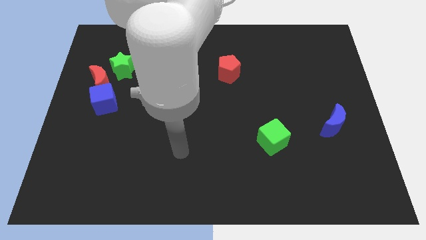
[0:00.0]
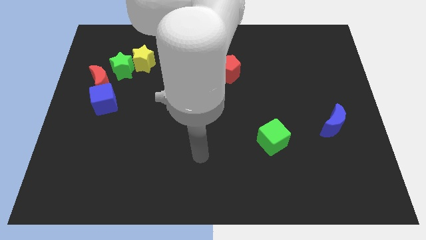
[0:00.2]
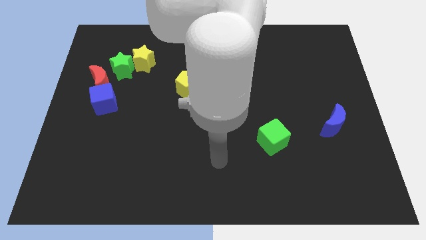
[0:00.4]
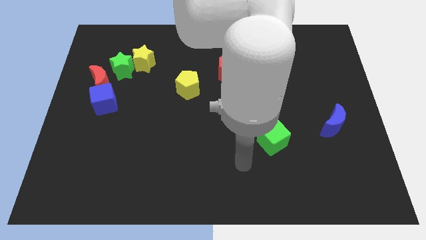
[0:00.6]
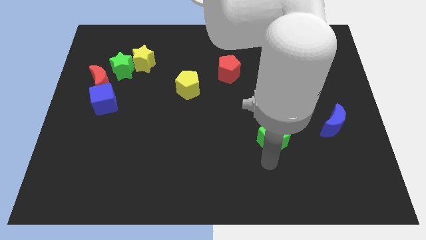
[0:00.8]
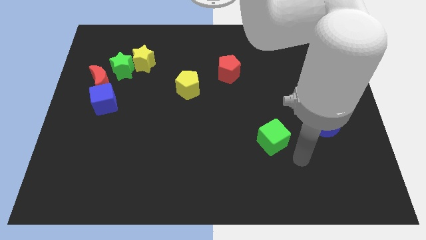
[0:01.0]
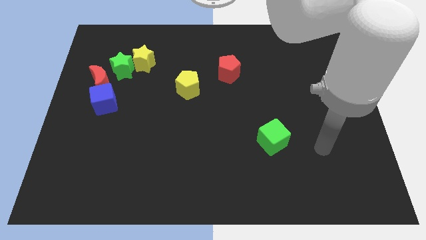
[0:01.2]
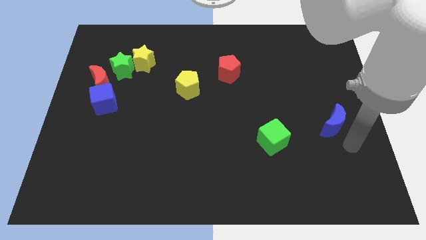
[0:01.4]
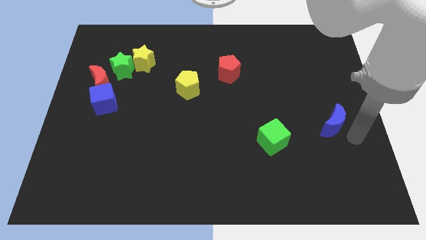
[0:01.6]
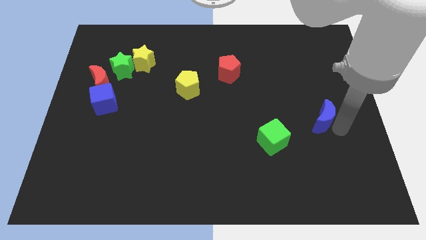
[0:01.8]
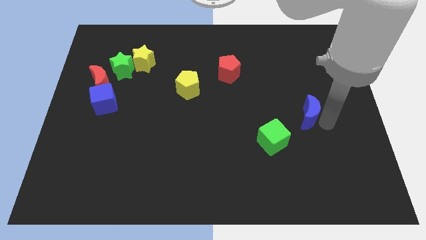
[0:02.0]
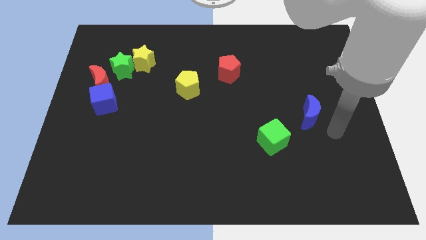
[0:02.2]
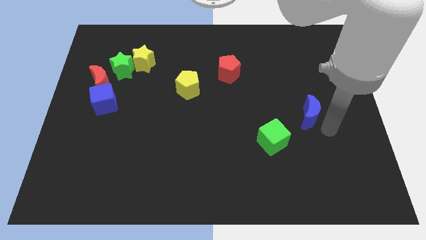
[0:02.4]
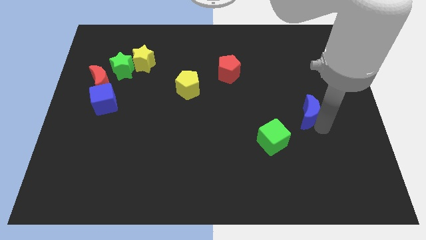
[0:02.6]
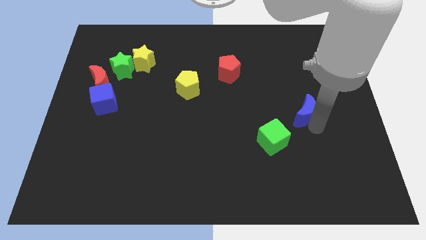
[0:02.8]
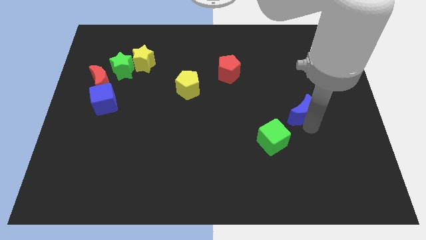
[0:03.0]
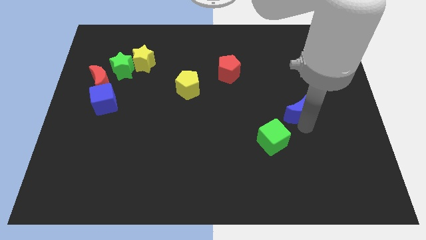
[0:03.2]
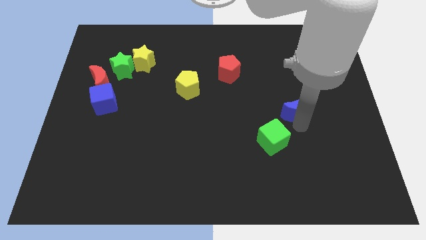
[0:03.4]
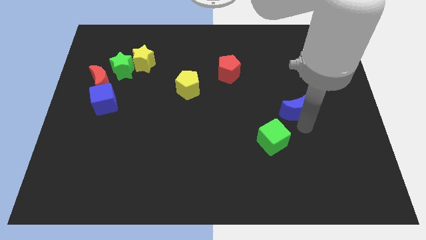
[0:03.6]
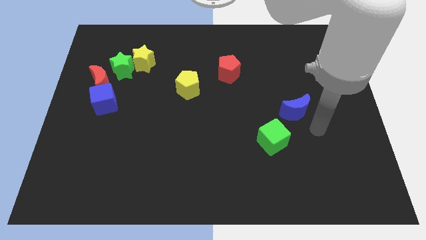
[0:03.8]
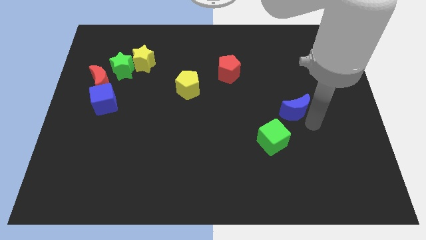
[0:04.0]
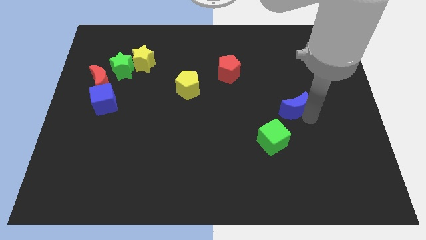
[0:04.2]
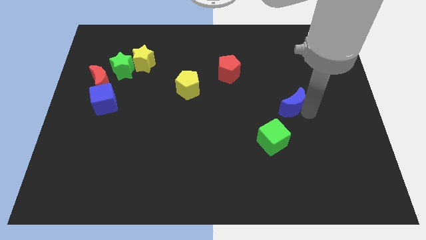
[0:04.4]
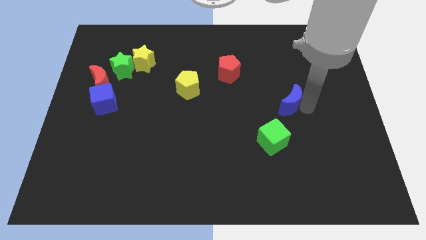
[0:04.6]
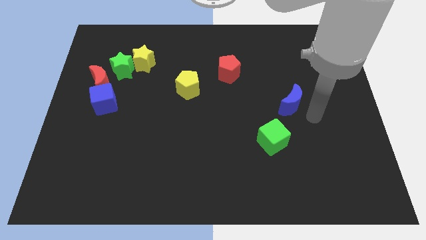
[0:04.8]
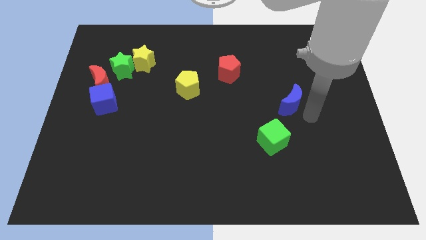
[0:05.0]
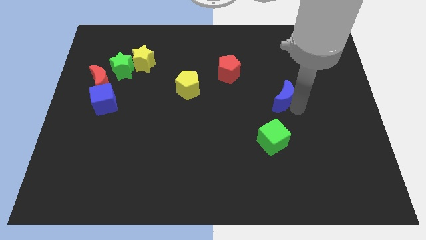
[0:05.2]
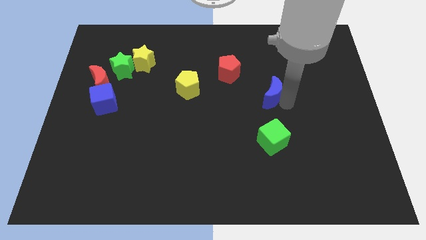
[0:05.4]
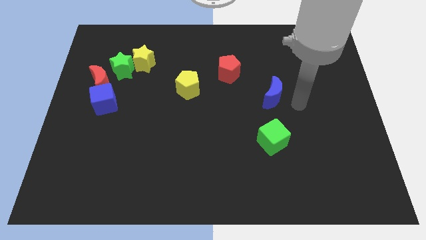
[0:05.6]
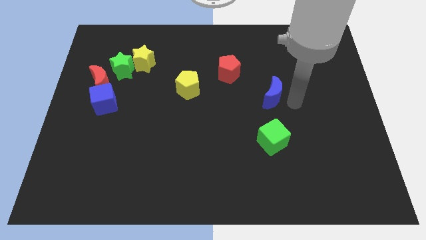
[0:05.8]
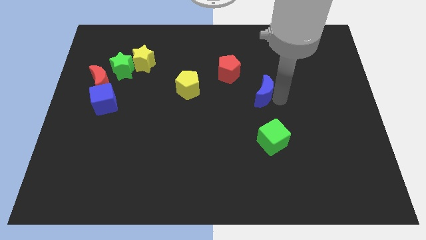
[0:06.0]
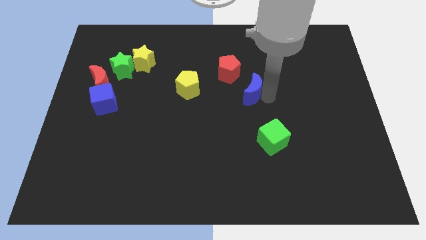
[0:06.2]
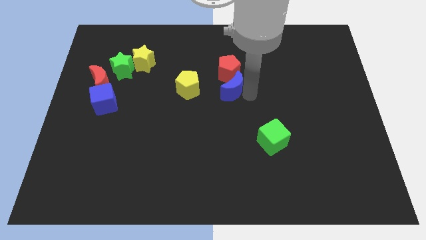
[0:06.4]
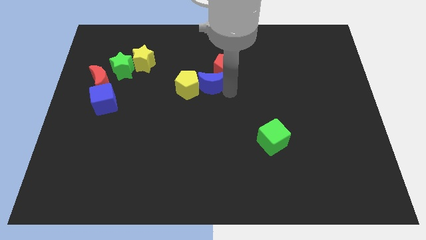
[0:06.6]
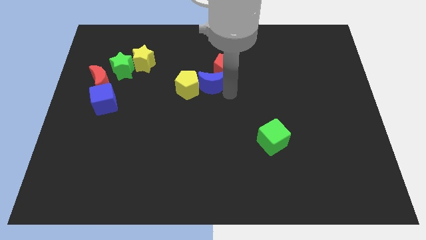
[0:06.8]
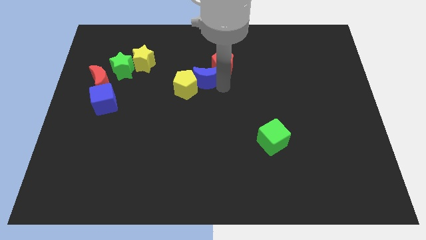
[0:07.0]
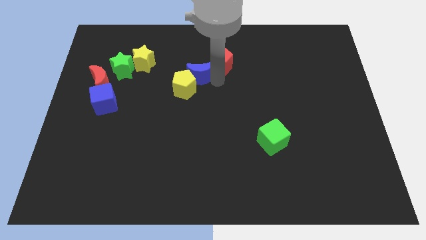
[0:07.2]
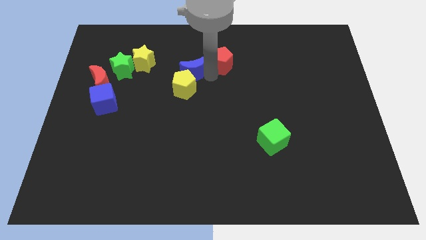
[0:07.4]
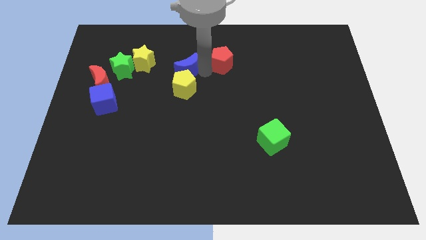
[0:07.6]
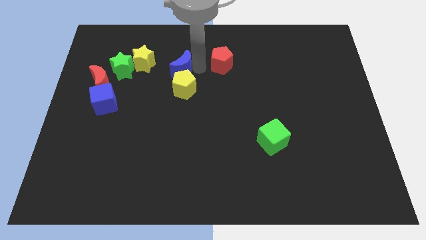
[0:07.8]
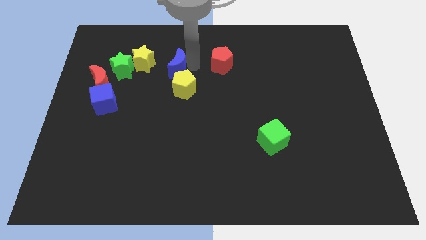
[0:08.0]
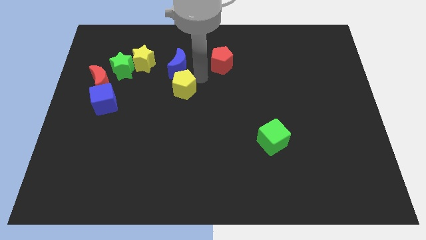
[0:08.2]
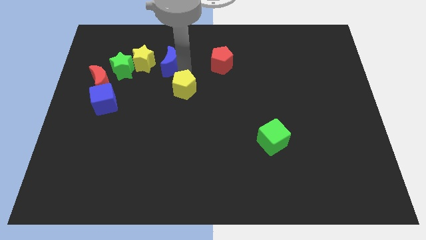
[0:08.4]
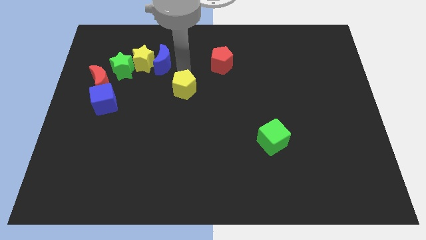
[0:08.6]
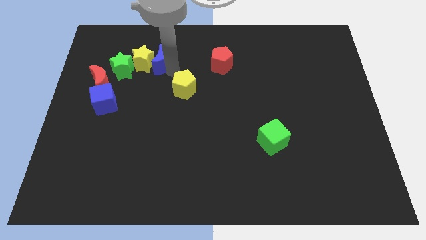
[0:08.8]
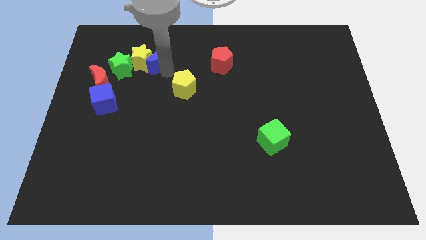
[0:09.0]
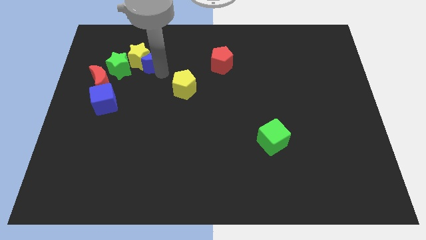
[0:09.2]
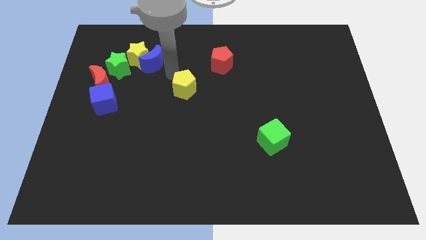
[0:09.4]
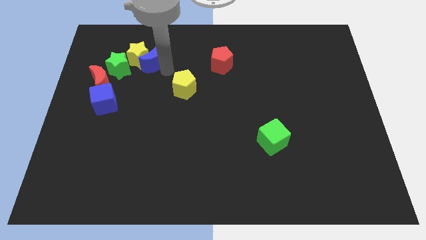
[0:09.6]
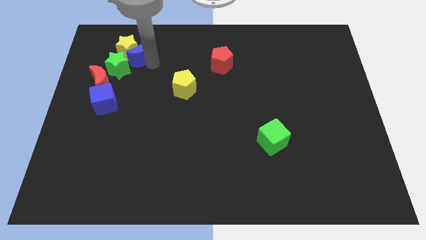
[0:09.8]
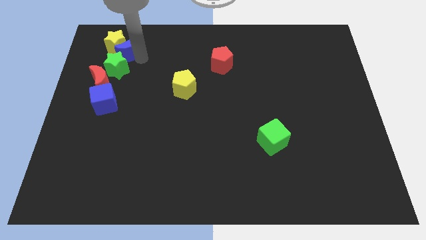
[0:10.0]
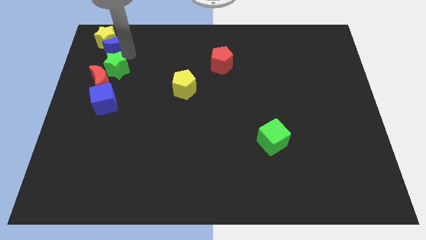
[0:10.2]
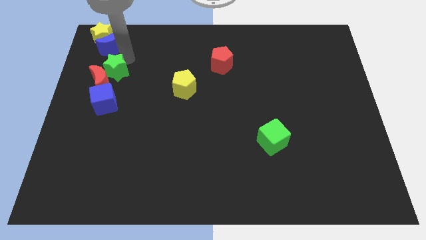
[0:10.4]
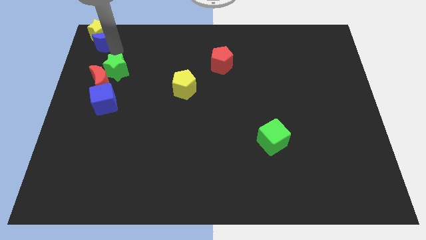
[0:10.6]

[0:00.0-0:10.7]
move the blue moon to the top left of the board

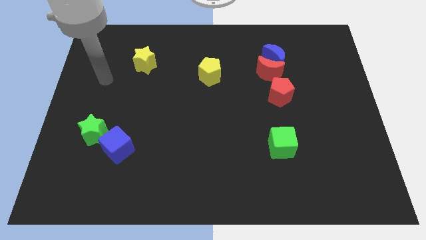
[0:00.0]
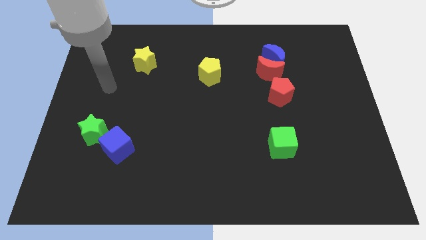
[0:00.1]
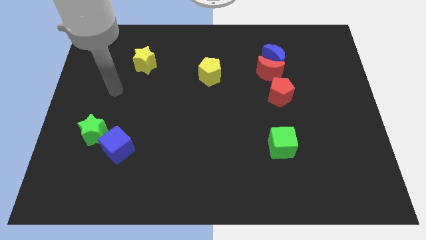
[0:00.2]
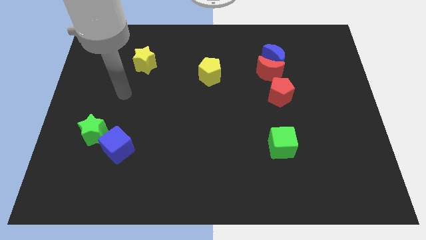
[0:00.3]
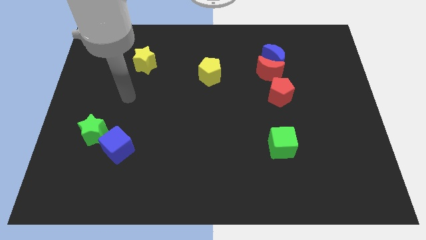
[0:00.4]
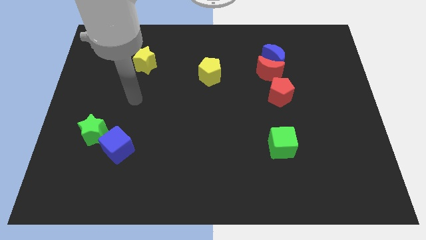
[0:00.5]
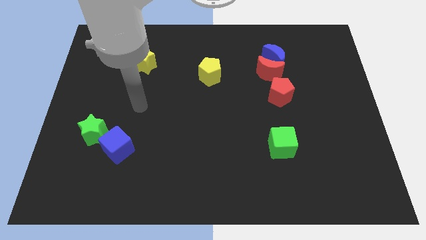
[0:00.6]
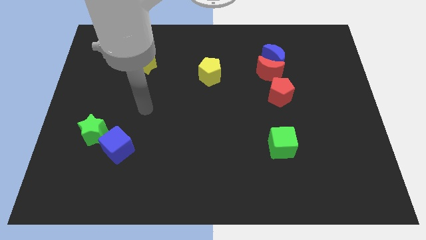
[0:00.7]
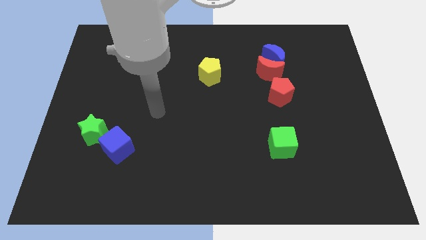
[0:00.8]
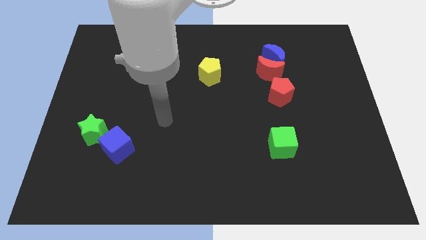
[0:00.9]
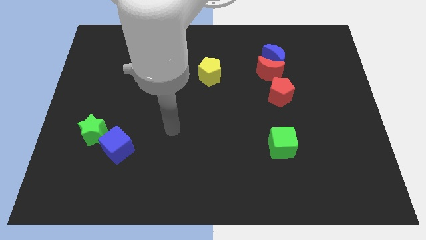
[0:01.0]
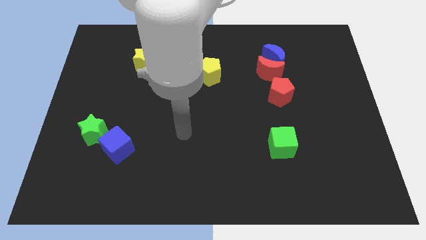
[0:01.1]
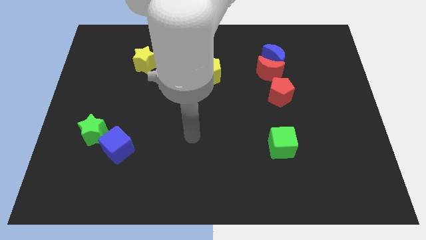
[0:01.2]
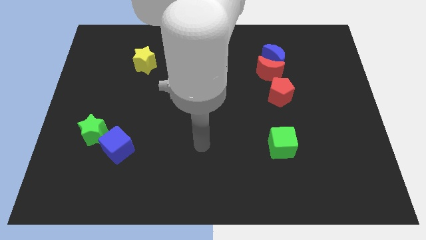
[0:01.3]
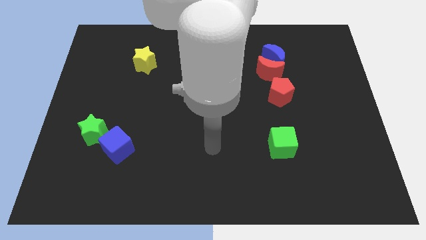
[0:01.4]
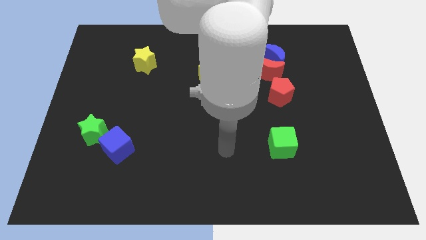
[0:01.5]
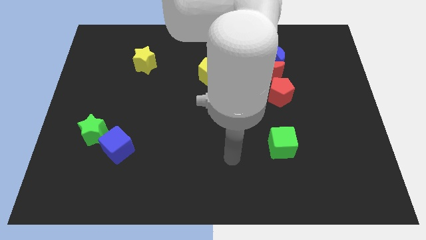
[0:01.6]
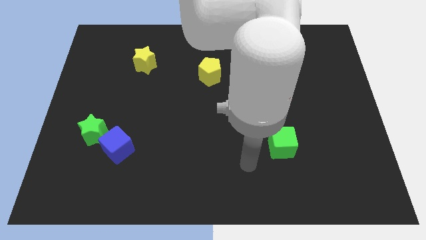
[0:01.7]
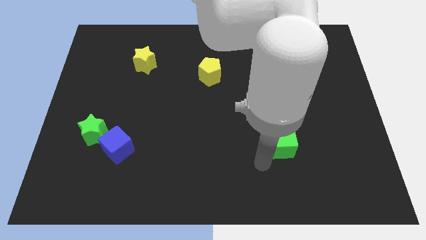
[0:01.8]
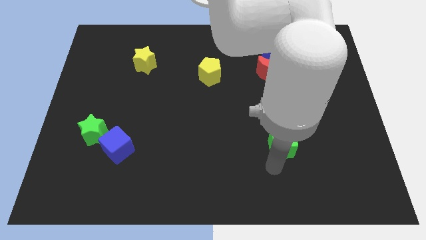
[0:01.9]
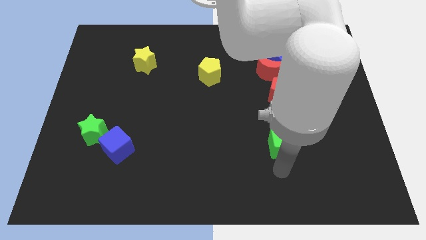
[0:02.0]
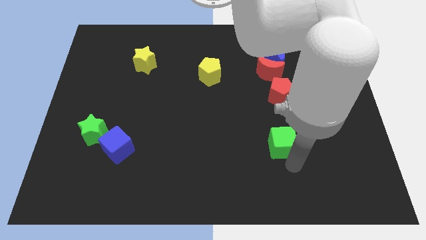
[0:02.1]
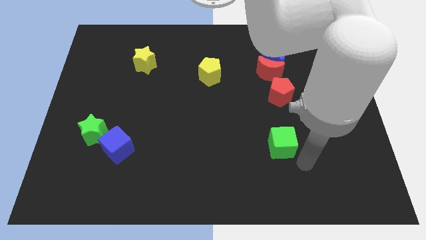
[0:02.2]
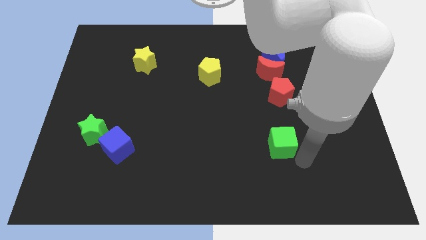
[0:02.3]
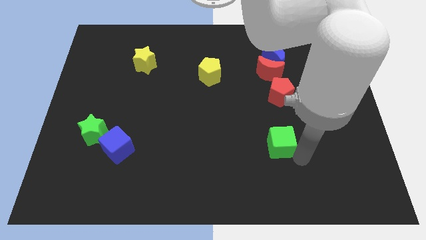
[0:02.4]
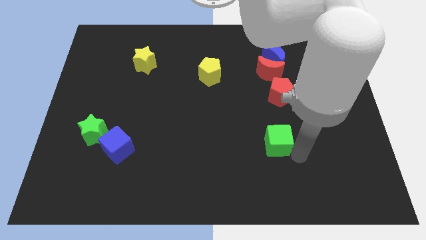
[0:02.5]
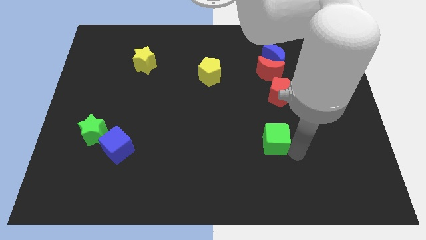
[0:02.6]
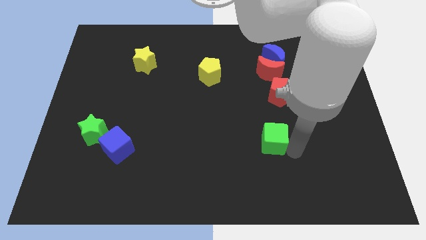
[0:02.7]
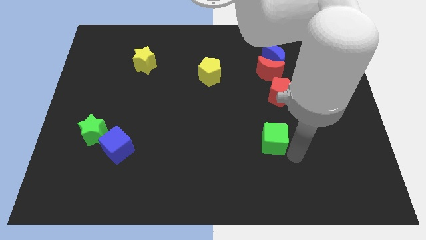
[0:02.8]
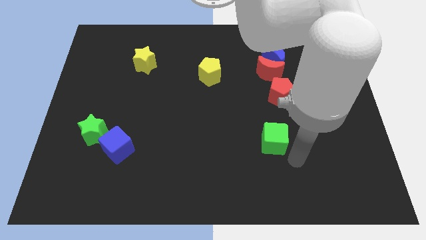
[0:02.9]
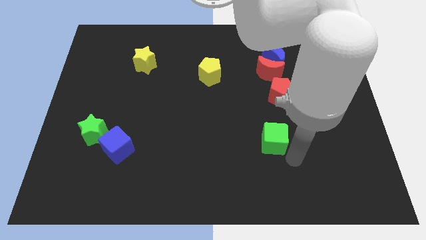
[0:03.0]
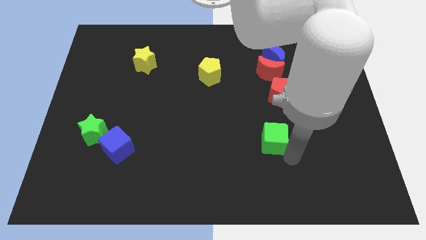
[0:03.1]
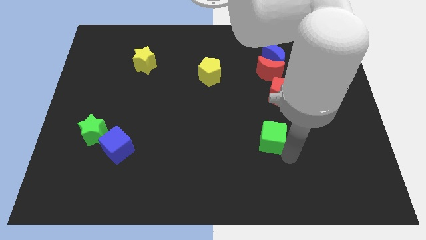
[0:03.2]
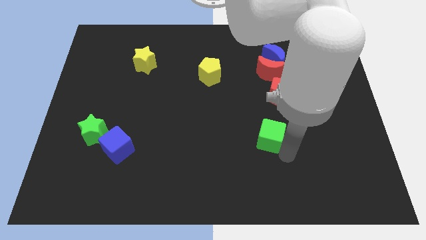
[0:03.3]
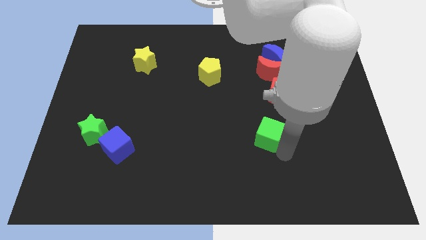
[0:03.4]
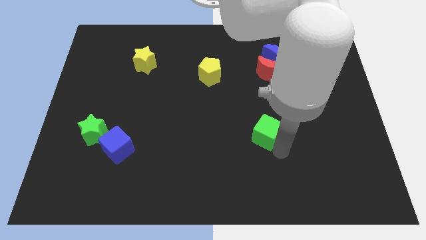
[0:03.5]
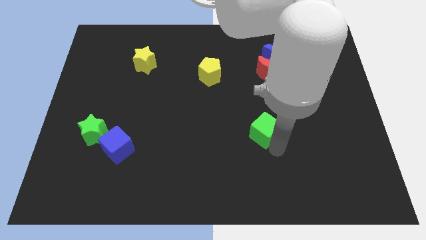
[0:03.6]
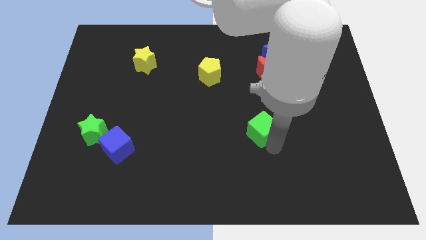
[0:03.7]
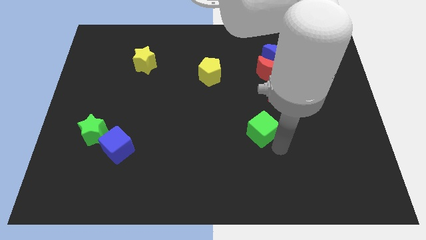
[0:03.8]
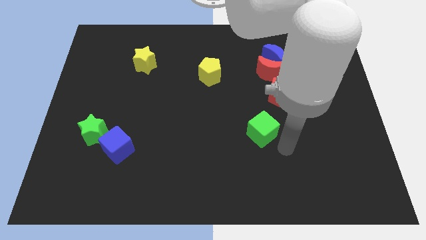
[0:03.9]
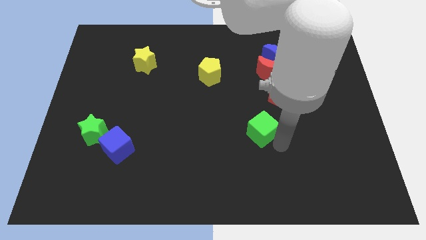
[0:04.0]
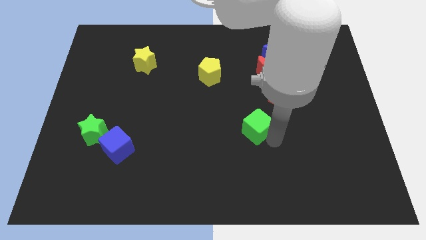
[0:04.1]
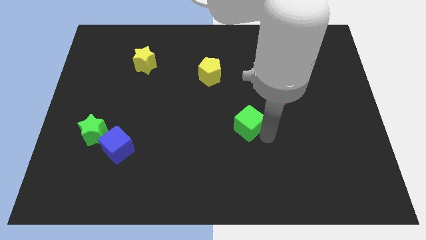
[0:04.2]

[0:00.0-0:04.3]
move the green cube to the middle of the board
